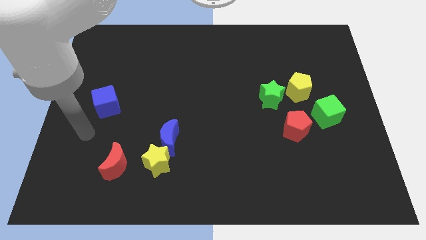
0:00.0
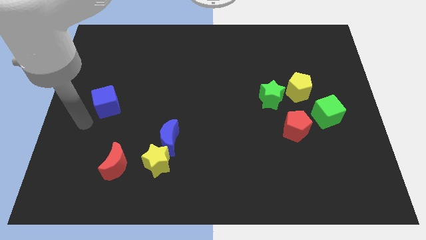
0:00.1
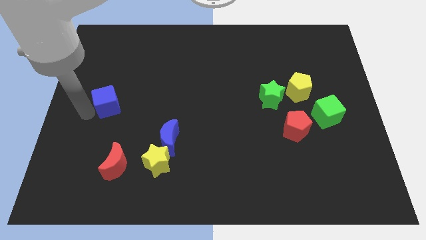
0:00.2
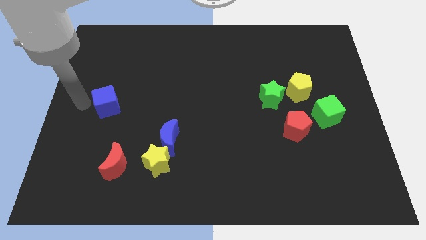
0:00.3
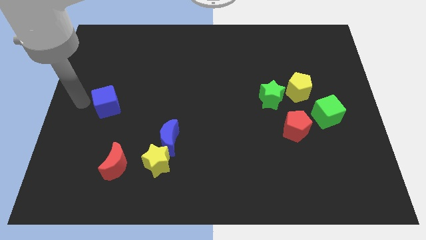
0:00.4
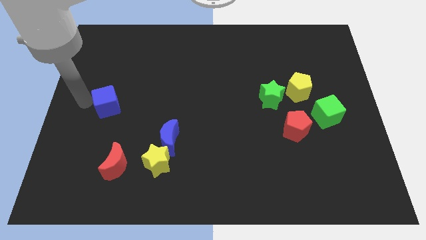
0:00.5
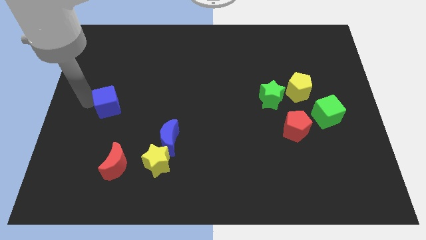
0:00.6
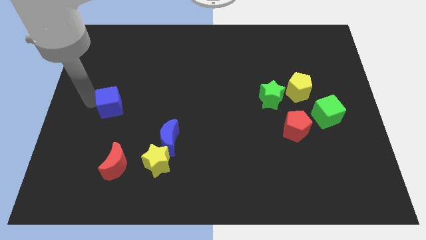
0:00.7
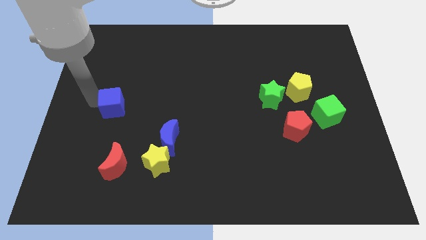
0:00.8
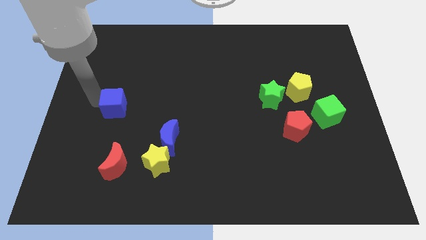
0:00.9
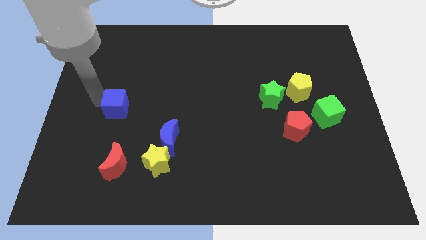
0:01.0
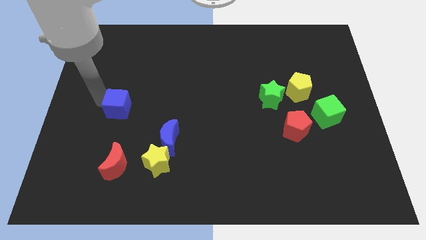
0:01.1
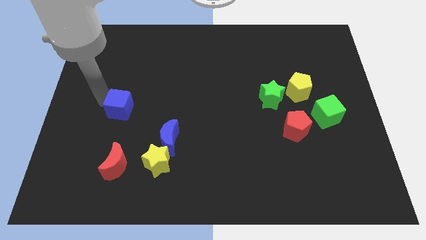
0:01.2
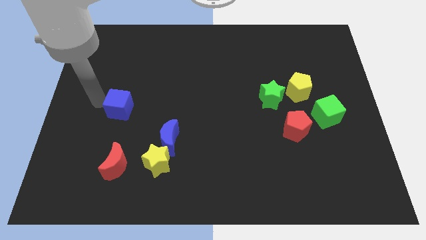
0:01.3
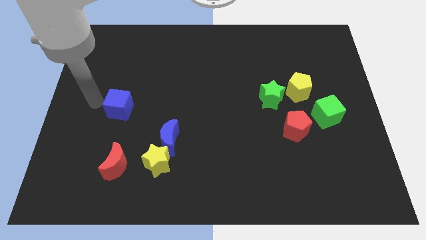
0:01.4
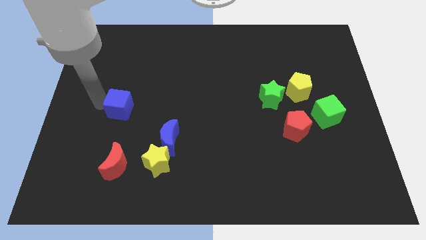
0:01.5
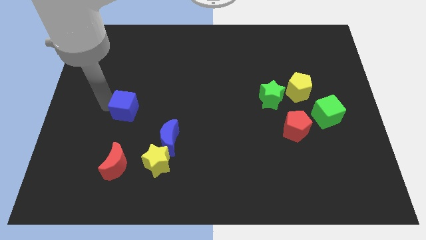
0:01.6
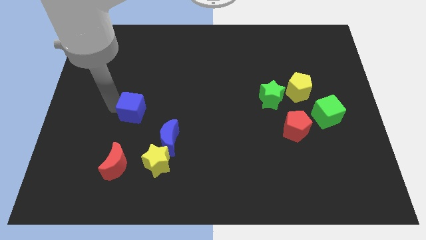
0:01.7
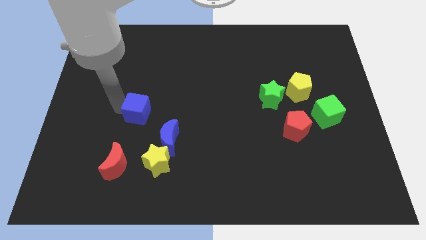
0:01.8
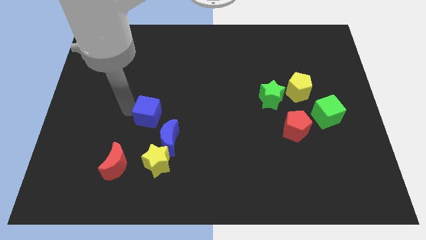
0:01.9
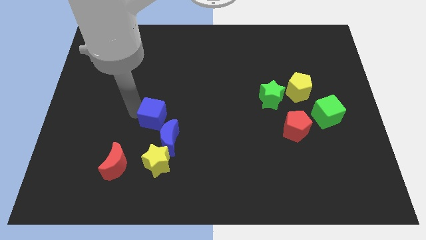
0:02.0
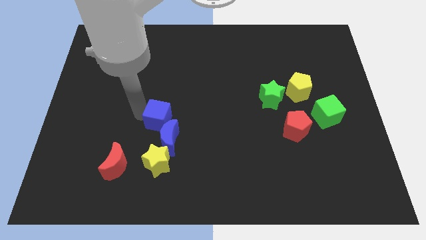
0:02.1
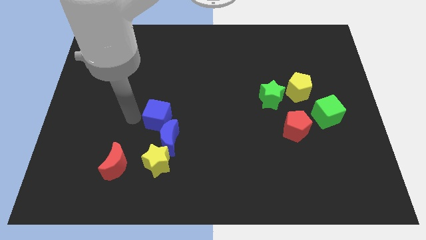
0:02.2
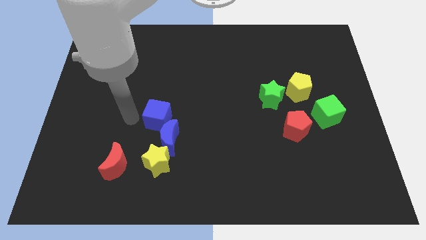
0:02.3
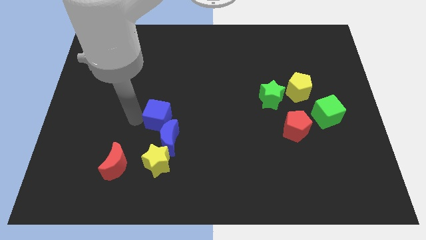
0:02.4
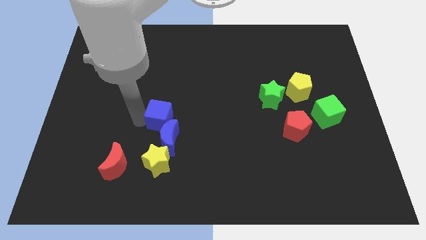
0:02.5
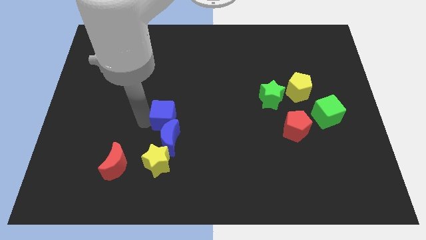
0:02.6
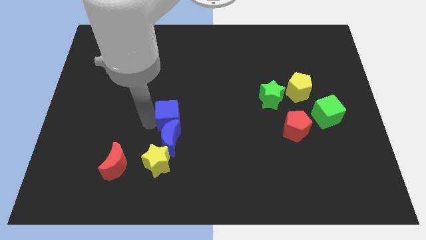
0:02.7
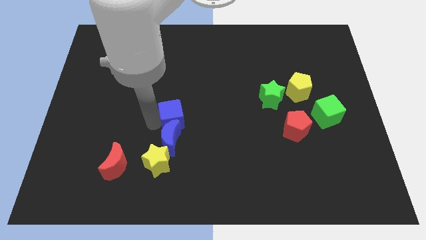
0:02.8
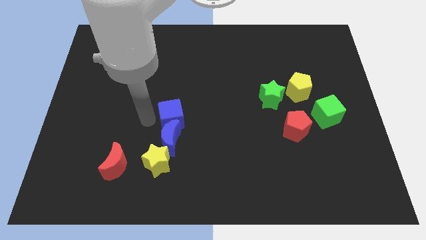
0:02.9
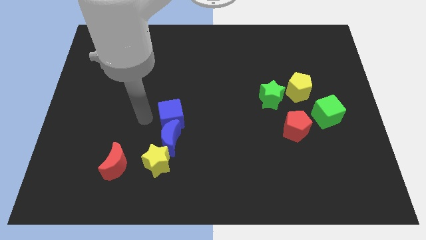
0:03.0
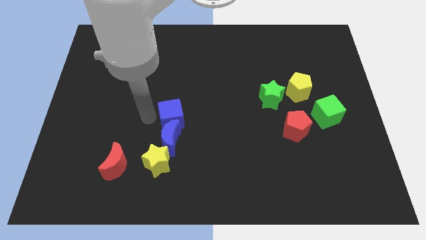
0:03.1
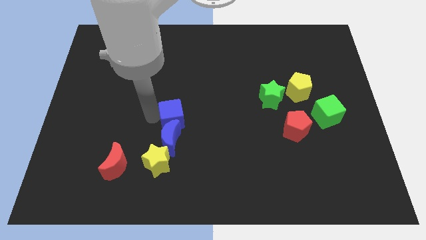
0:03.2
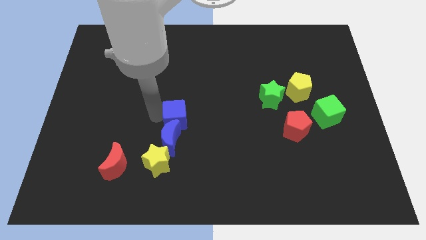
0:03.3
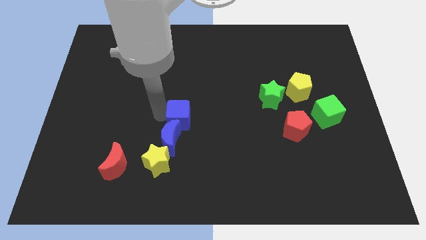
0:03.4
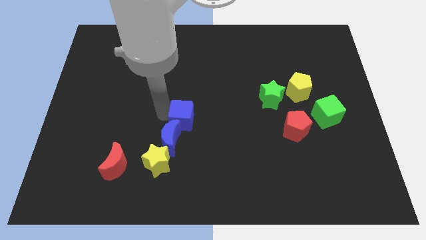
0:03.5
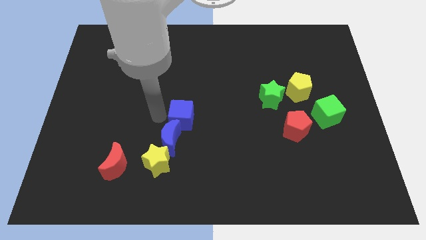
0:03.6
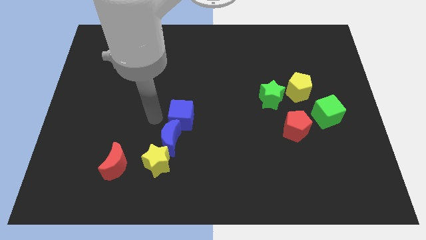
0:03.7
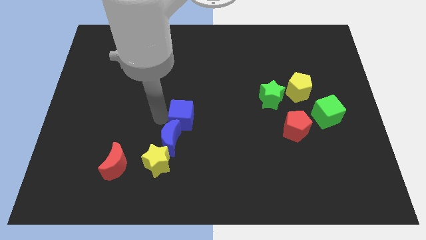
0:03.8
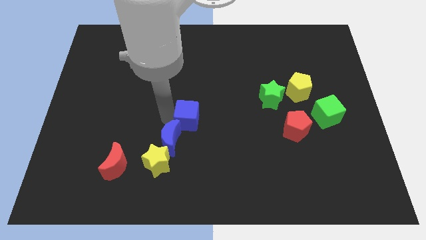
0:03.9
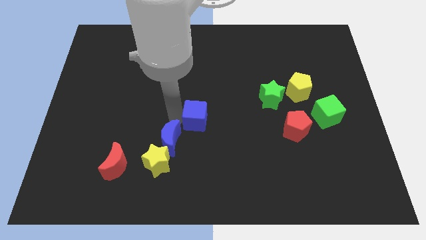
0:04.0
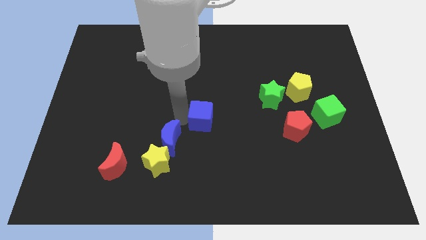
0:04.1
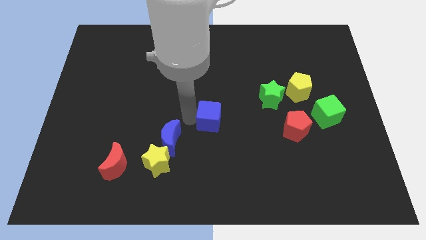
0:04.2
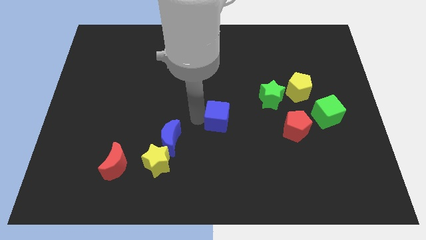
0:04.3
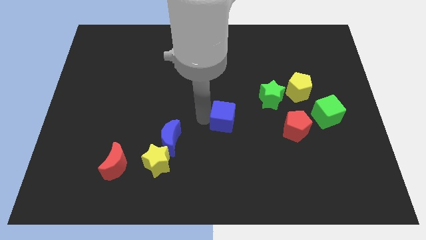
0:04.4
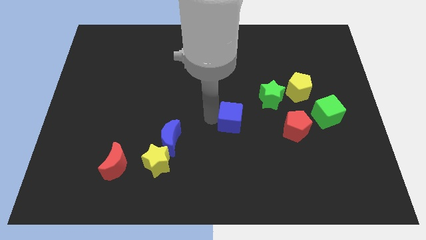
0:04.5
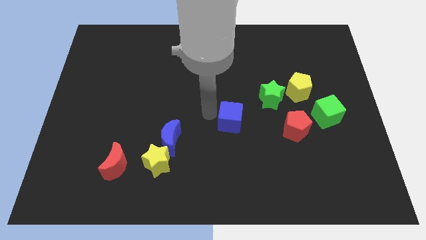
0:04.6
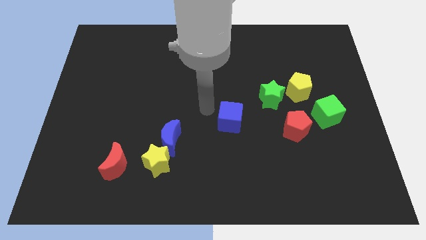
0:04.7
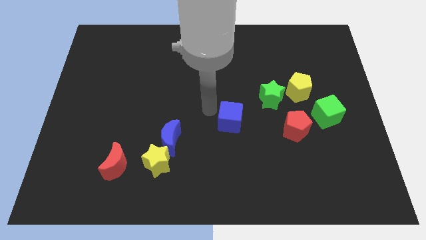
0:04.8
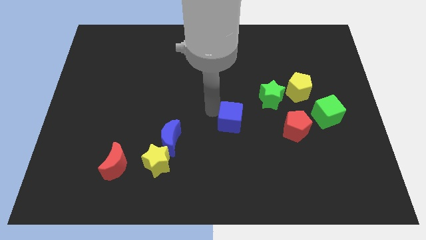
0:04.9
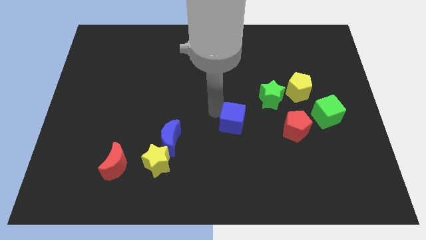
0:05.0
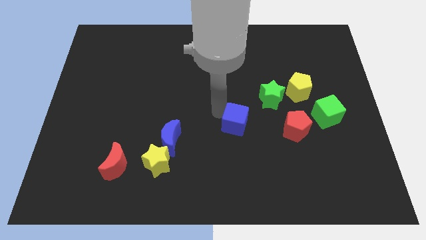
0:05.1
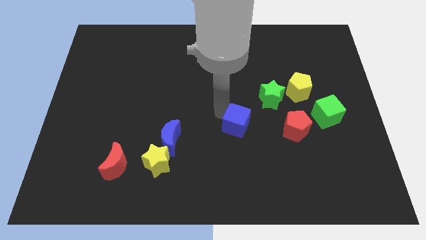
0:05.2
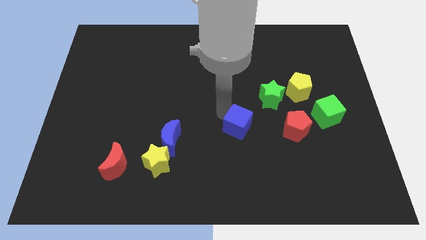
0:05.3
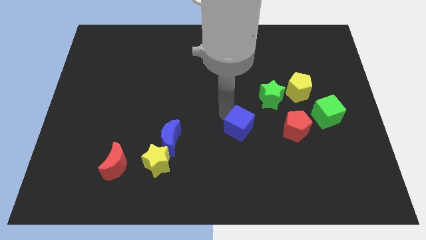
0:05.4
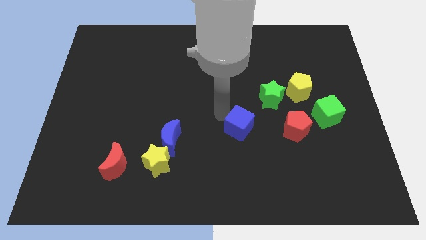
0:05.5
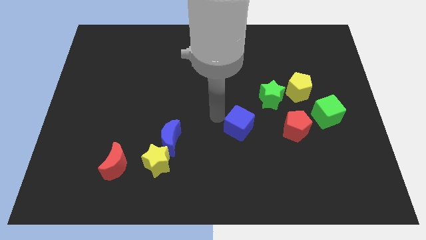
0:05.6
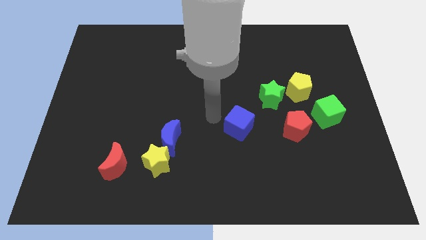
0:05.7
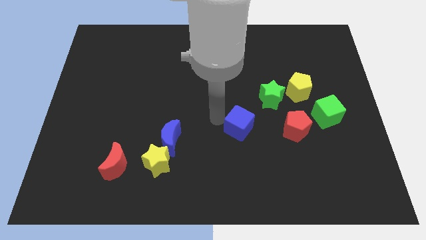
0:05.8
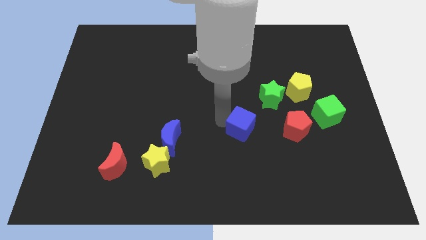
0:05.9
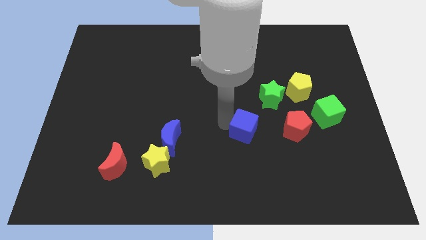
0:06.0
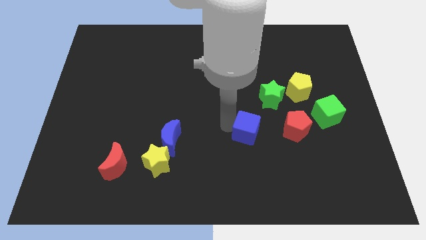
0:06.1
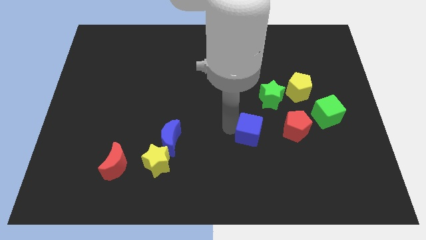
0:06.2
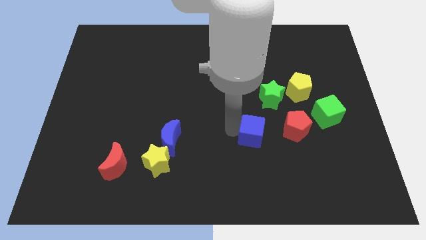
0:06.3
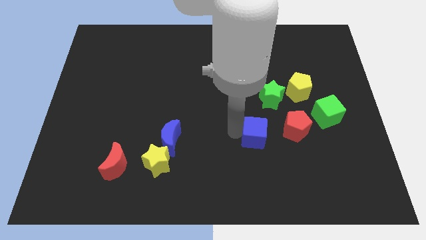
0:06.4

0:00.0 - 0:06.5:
push the blue cube to the bottom of the green star

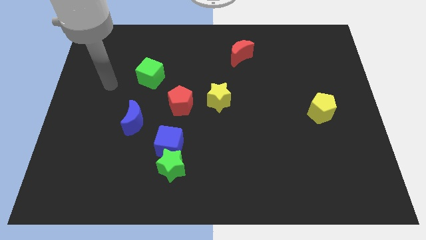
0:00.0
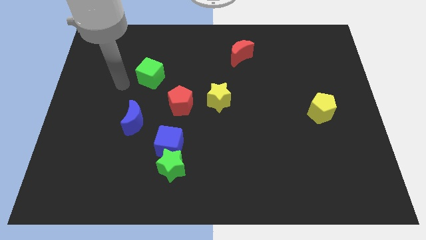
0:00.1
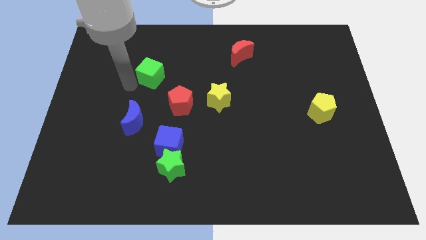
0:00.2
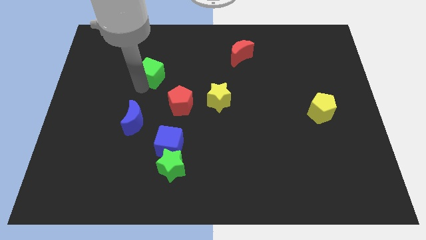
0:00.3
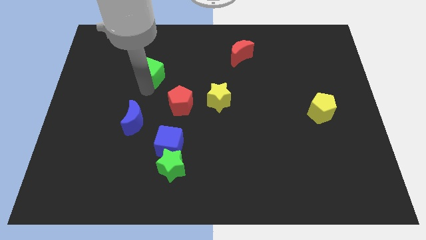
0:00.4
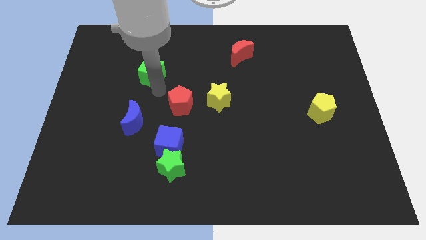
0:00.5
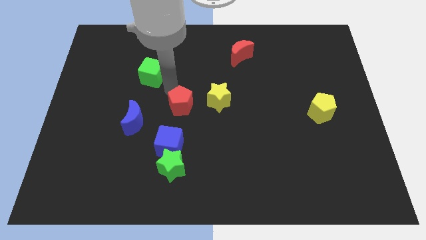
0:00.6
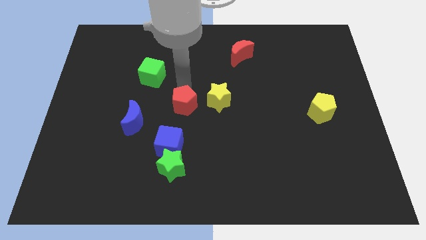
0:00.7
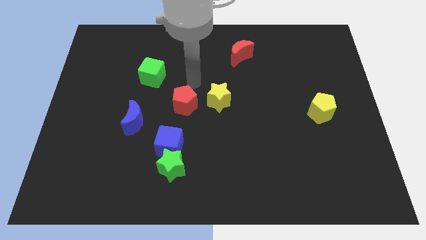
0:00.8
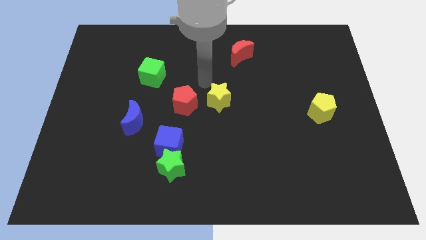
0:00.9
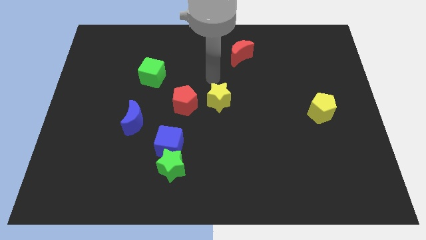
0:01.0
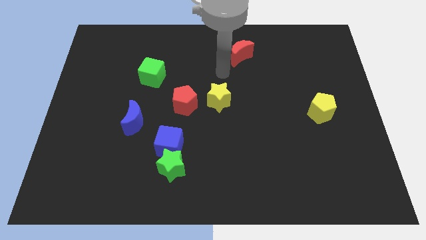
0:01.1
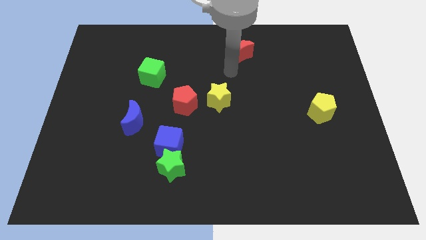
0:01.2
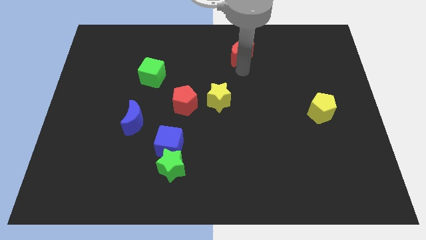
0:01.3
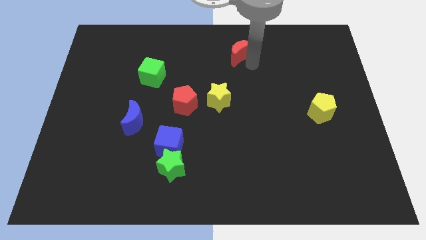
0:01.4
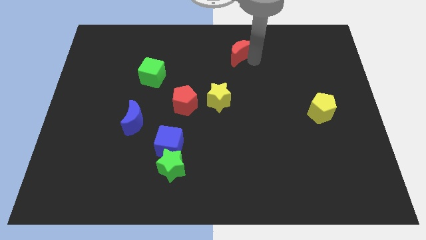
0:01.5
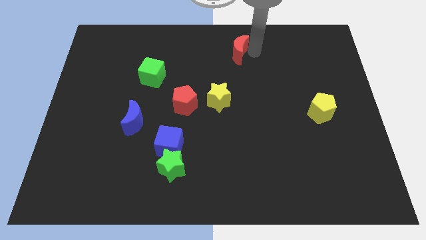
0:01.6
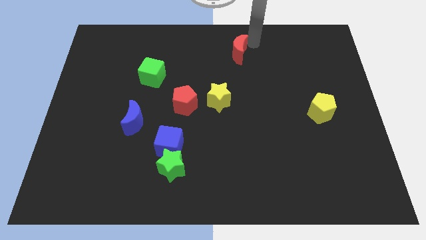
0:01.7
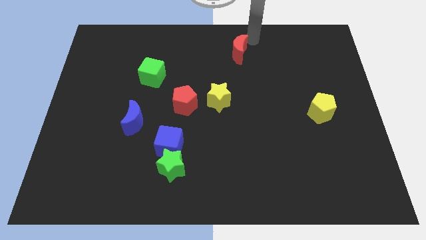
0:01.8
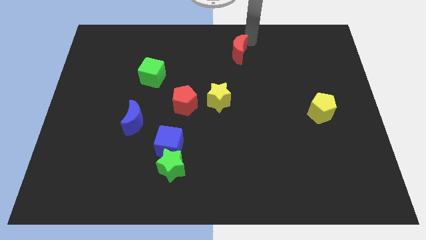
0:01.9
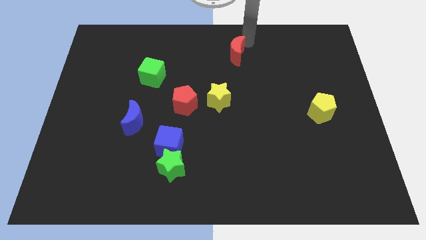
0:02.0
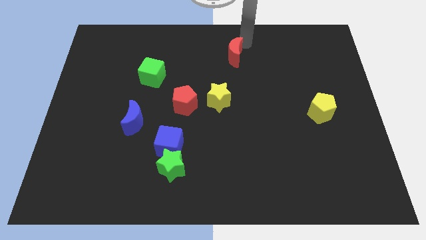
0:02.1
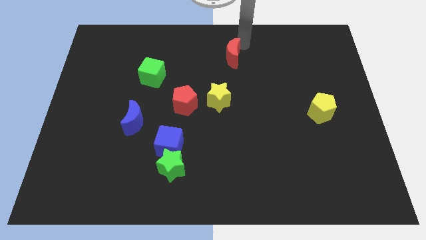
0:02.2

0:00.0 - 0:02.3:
push the red moon above the yellow star
